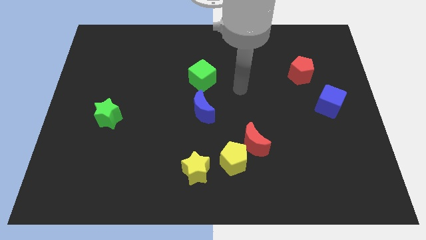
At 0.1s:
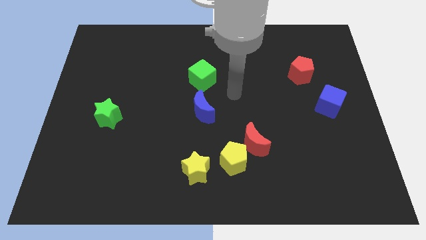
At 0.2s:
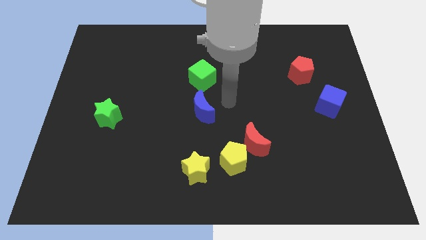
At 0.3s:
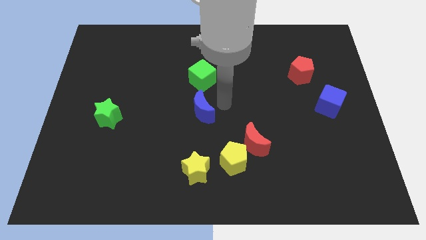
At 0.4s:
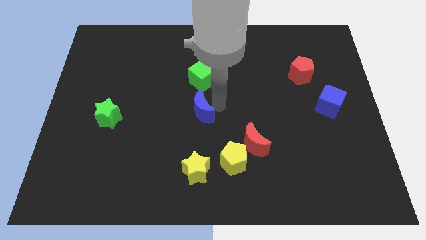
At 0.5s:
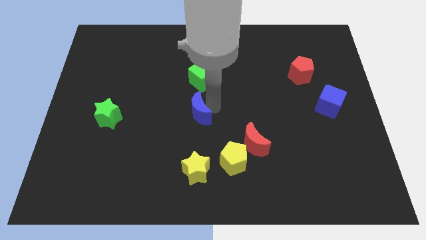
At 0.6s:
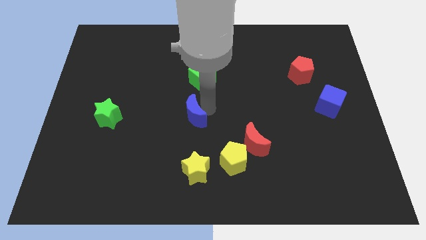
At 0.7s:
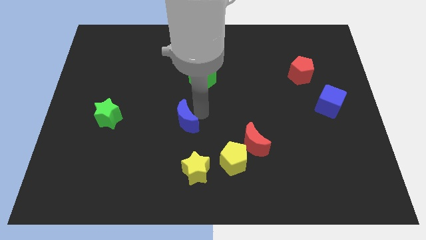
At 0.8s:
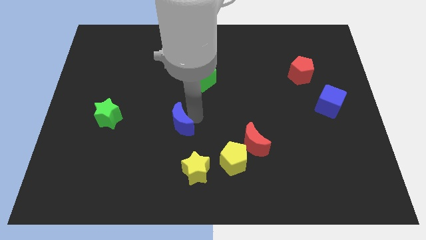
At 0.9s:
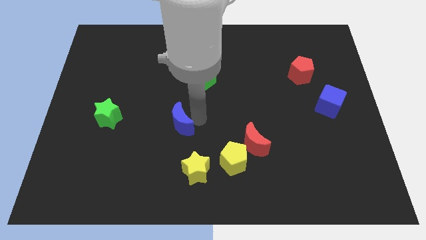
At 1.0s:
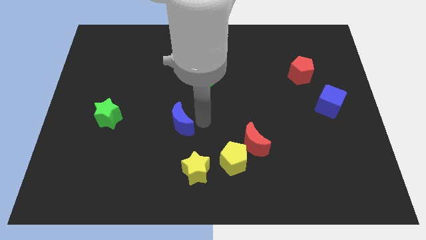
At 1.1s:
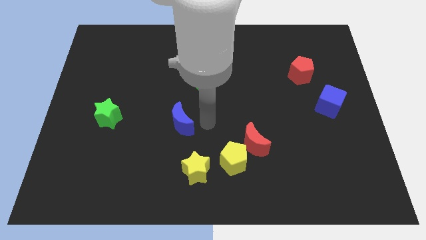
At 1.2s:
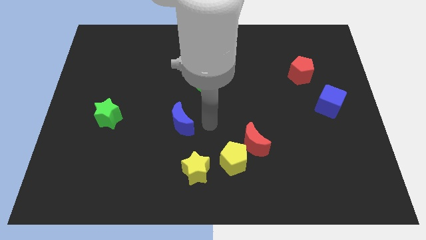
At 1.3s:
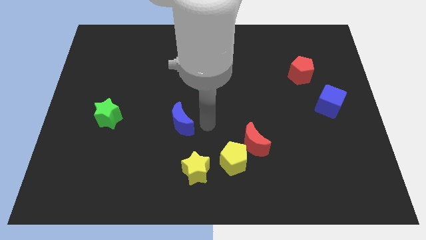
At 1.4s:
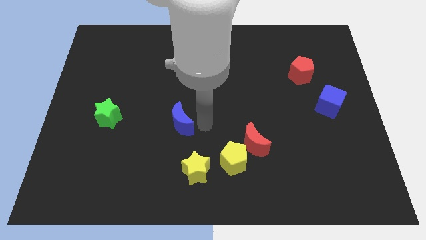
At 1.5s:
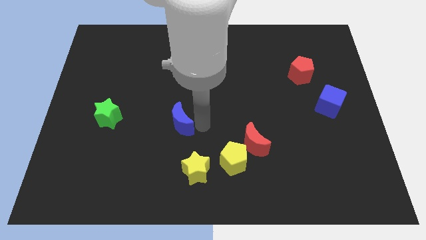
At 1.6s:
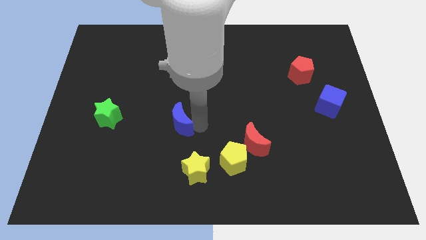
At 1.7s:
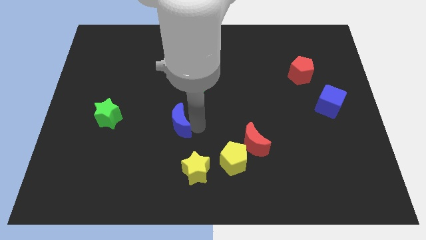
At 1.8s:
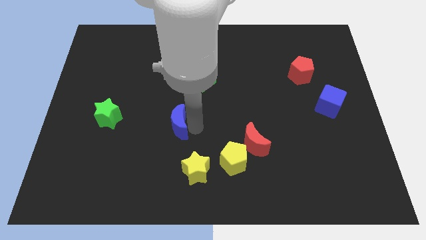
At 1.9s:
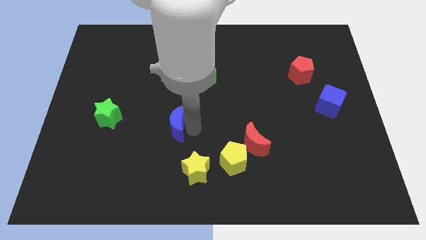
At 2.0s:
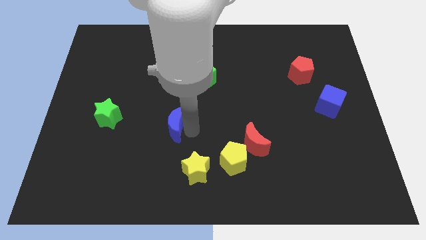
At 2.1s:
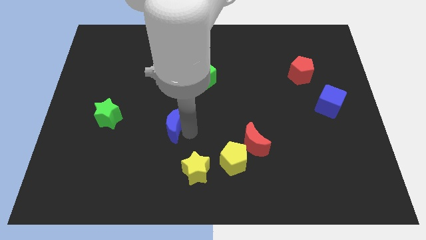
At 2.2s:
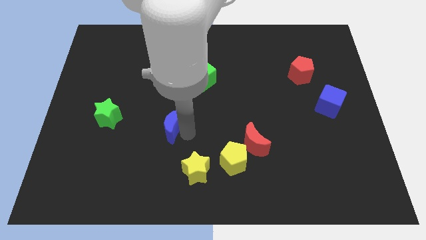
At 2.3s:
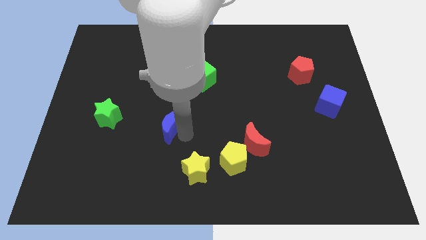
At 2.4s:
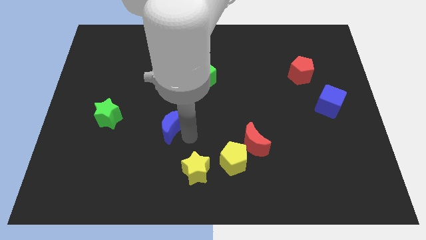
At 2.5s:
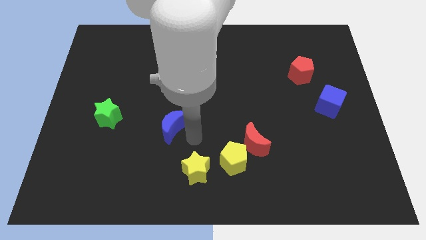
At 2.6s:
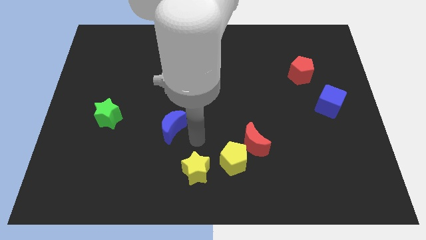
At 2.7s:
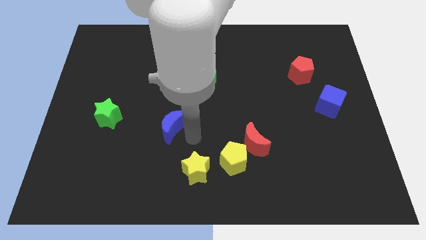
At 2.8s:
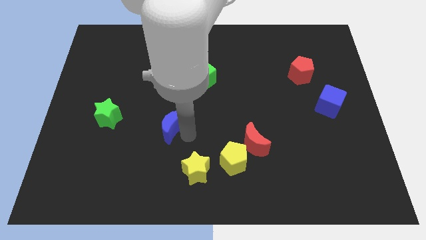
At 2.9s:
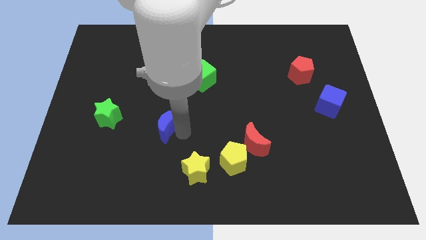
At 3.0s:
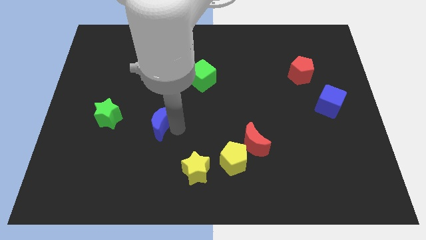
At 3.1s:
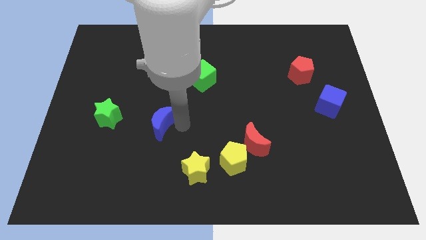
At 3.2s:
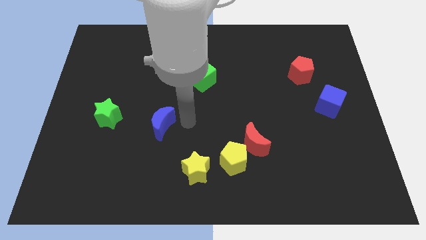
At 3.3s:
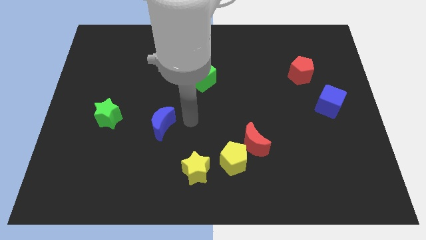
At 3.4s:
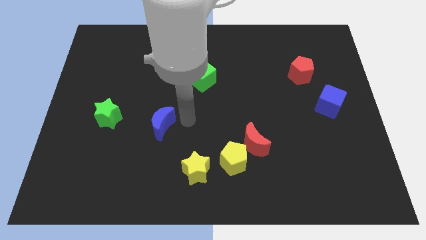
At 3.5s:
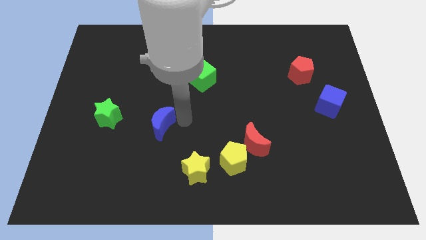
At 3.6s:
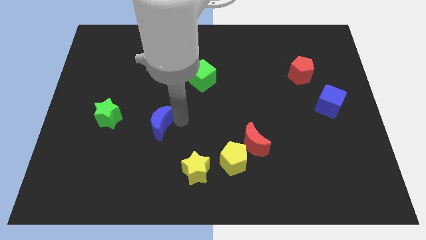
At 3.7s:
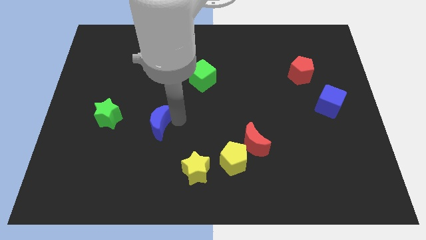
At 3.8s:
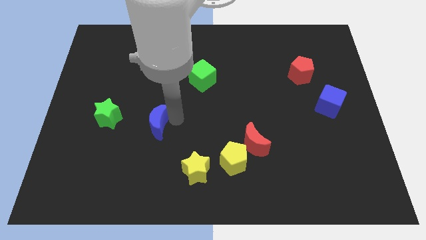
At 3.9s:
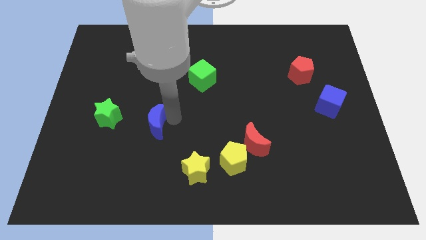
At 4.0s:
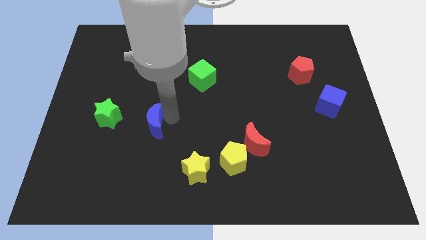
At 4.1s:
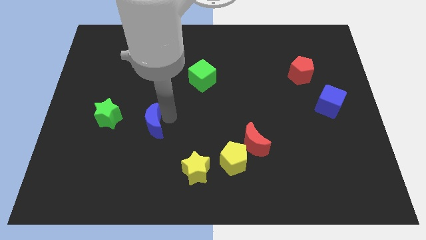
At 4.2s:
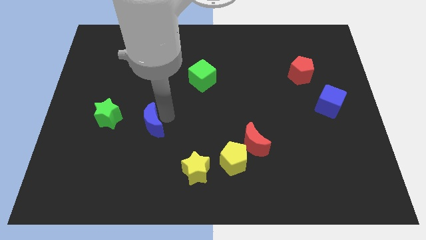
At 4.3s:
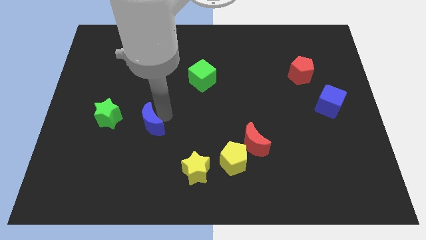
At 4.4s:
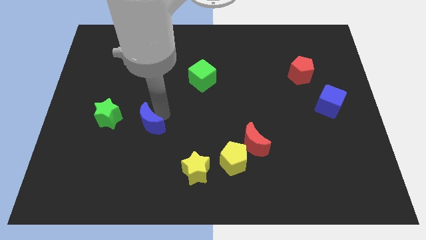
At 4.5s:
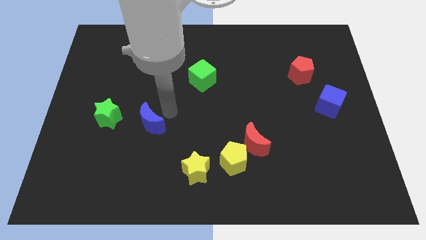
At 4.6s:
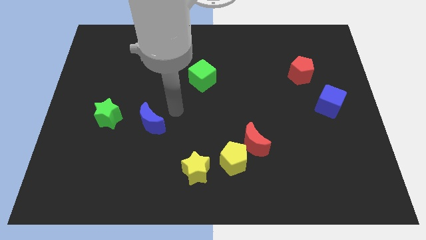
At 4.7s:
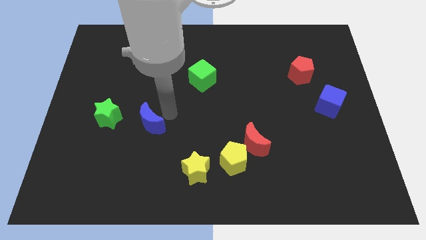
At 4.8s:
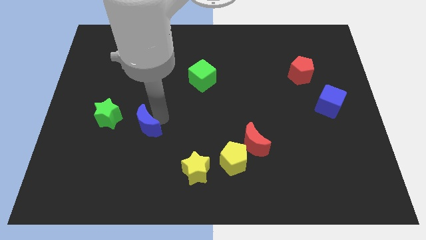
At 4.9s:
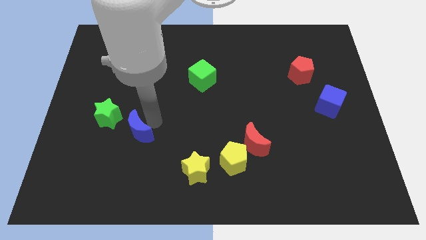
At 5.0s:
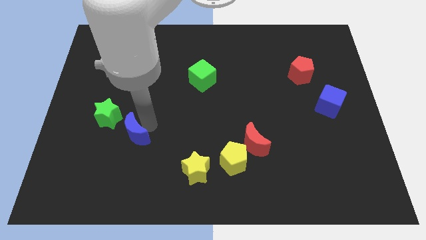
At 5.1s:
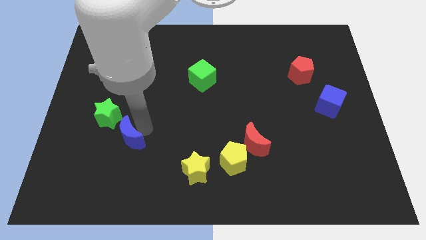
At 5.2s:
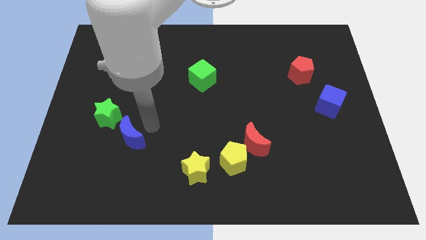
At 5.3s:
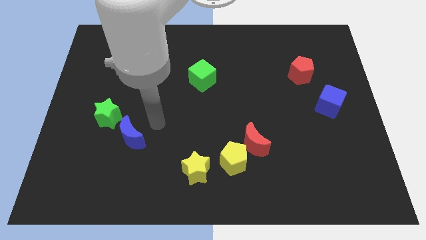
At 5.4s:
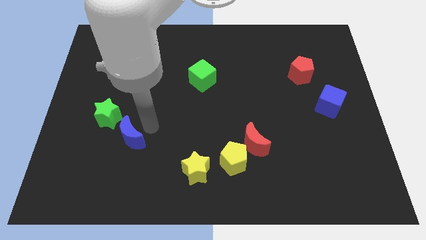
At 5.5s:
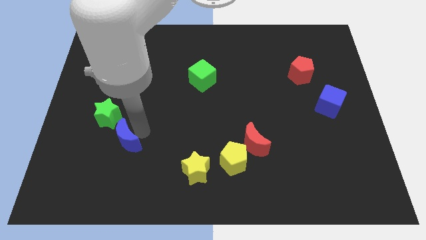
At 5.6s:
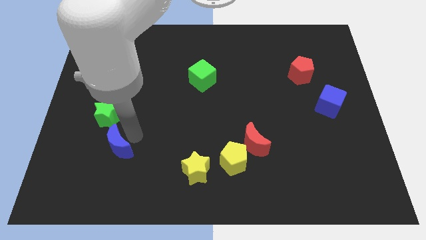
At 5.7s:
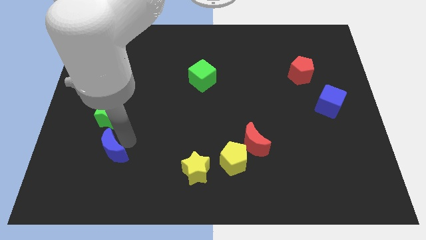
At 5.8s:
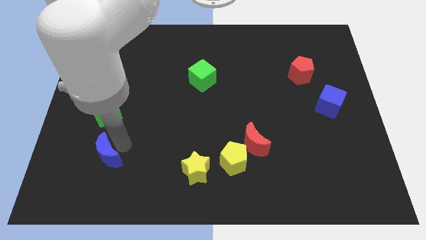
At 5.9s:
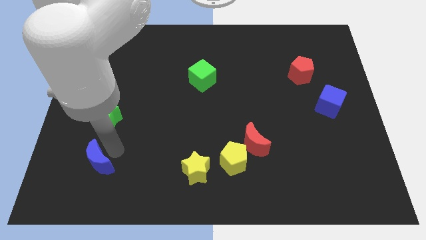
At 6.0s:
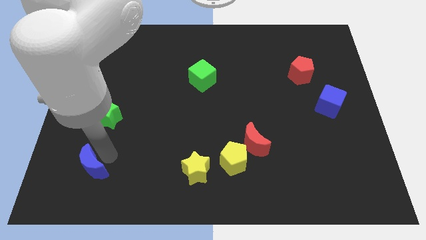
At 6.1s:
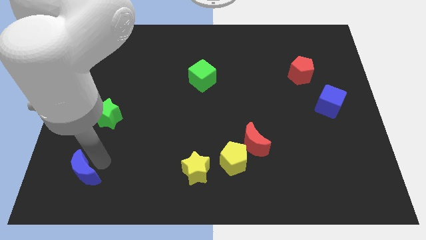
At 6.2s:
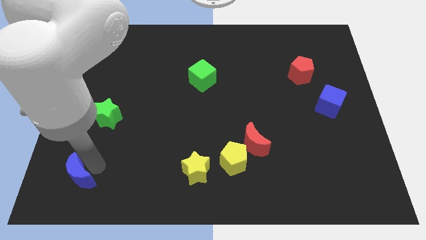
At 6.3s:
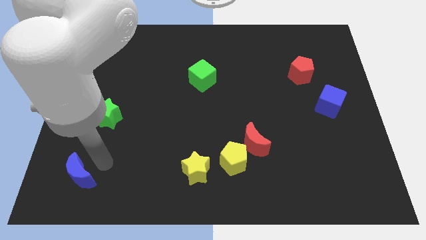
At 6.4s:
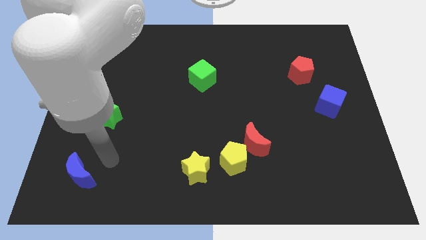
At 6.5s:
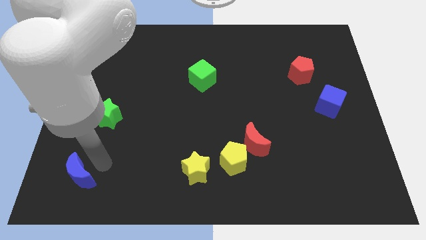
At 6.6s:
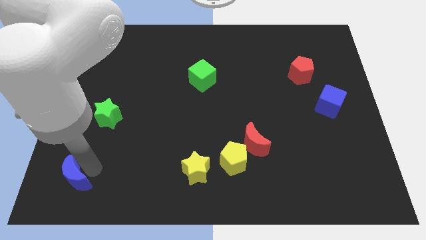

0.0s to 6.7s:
move the blue moon to the bottom left corner
